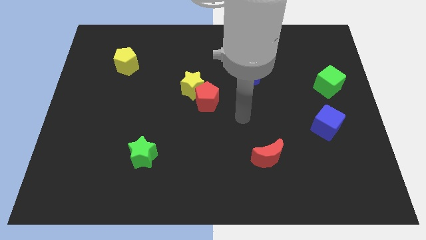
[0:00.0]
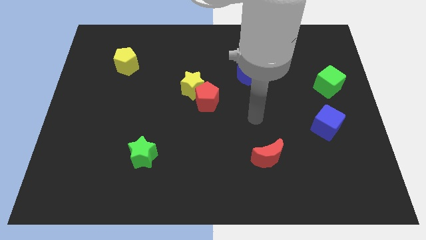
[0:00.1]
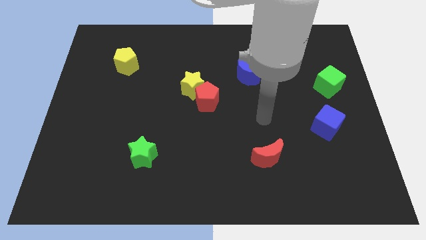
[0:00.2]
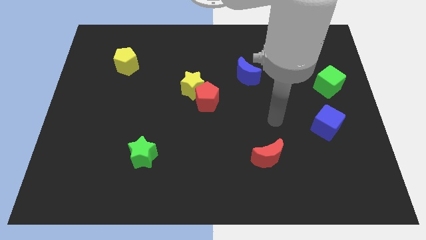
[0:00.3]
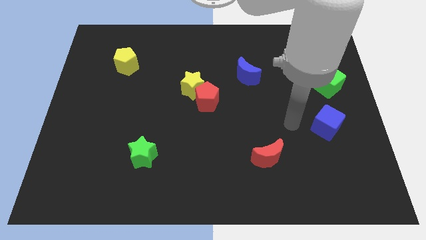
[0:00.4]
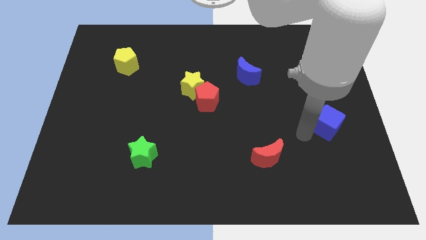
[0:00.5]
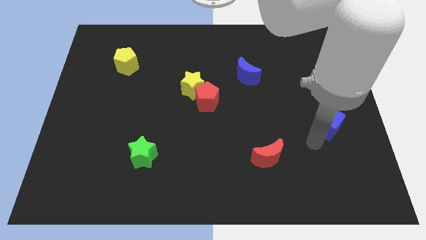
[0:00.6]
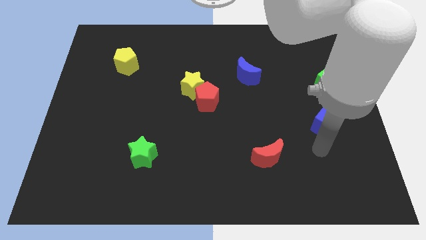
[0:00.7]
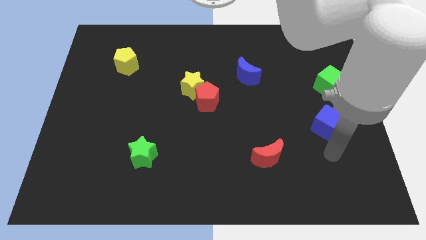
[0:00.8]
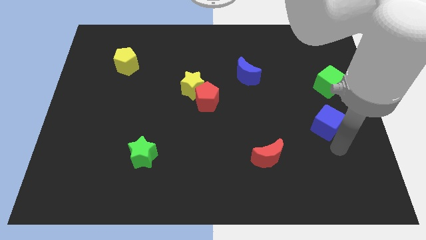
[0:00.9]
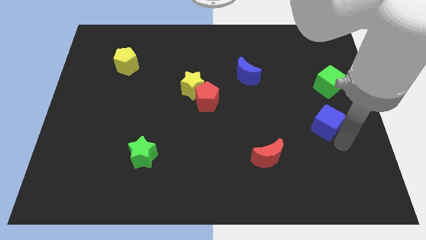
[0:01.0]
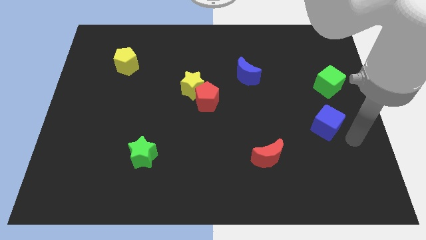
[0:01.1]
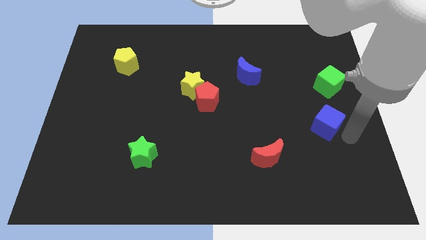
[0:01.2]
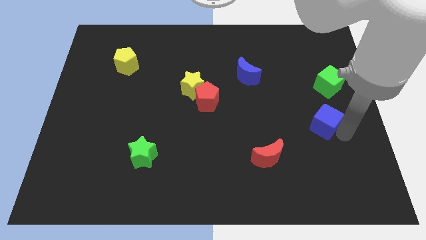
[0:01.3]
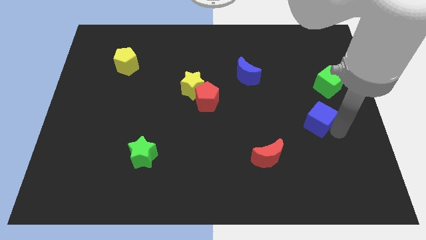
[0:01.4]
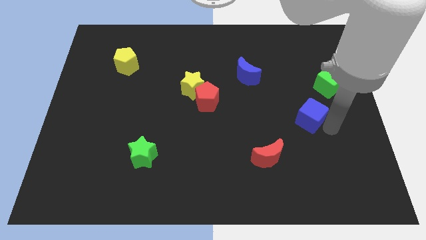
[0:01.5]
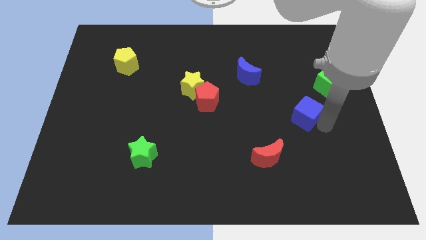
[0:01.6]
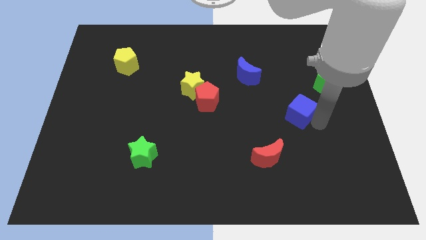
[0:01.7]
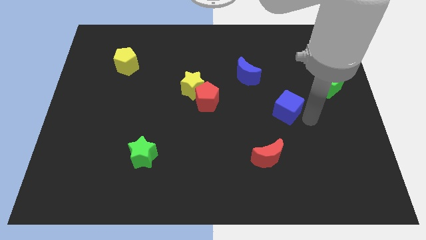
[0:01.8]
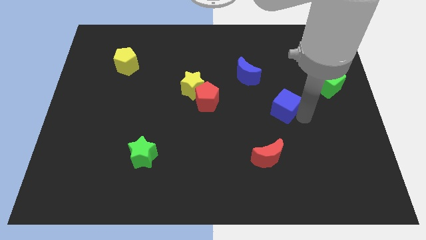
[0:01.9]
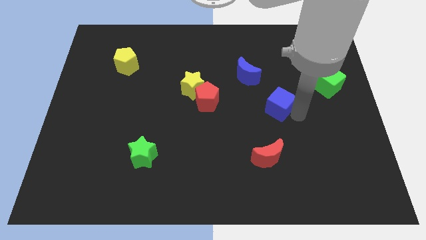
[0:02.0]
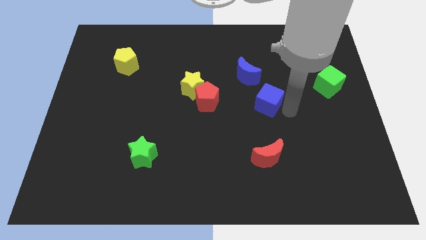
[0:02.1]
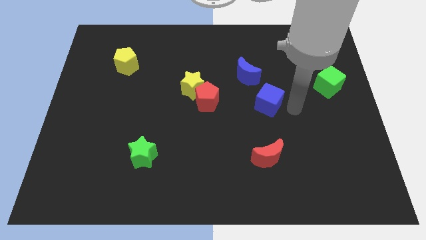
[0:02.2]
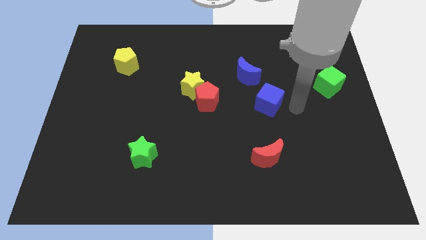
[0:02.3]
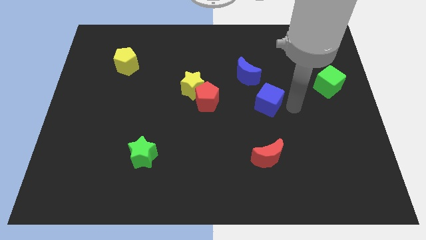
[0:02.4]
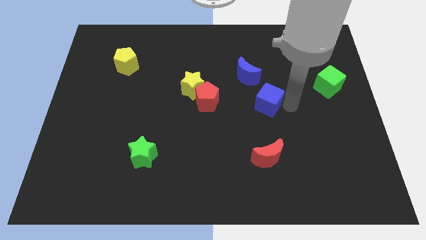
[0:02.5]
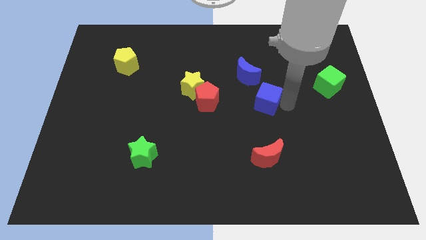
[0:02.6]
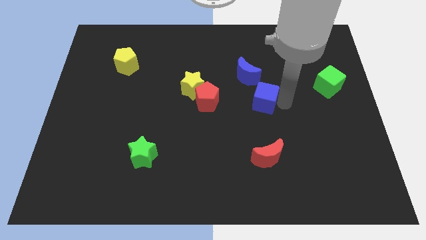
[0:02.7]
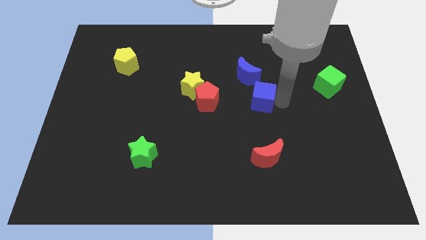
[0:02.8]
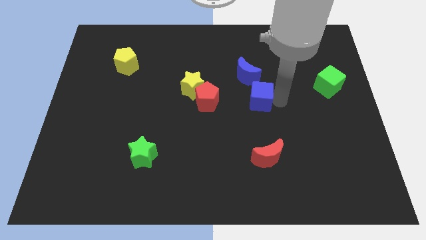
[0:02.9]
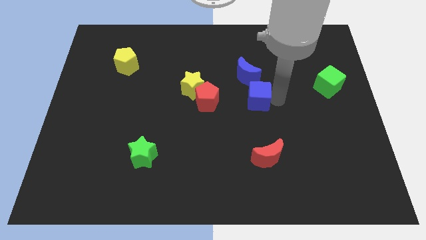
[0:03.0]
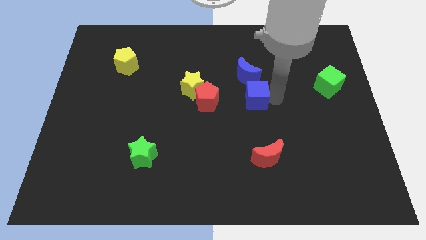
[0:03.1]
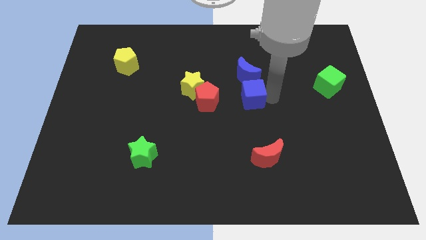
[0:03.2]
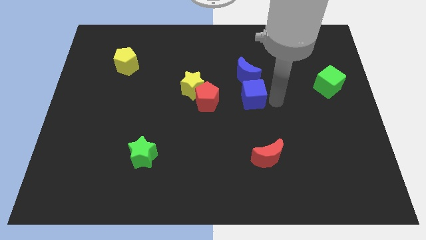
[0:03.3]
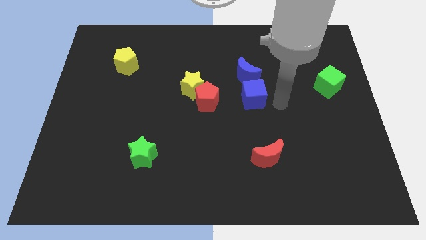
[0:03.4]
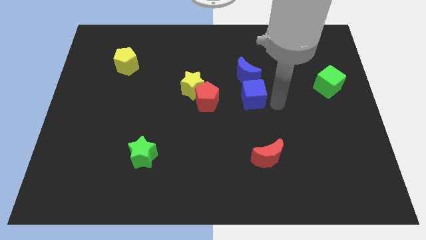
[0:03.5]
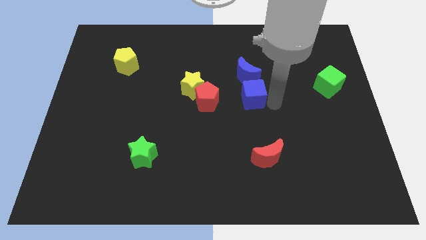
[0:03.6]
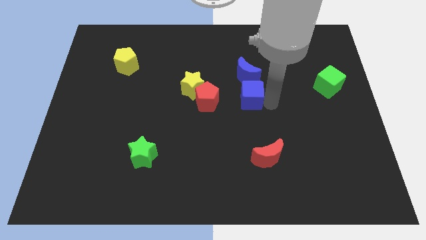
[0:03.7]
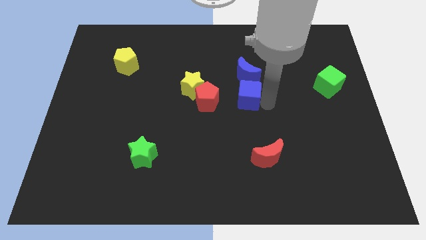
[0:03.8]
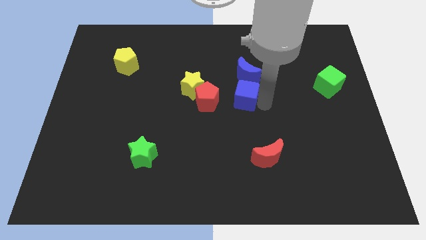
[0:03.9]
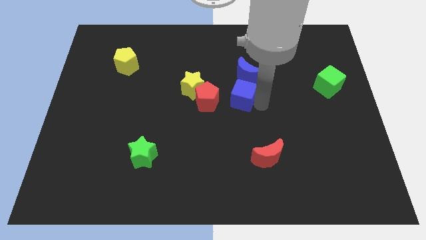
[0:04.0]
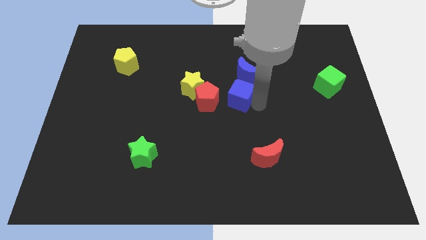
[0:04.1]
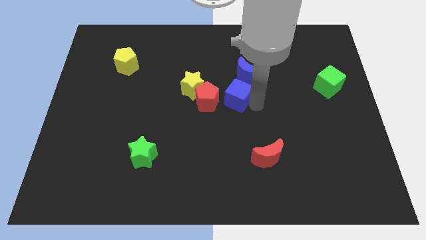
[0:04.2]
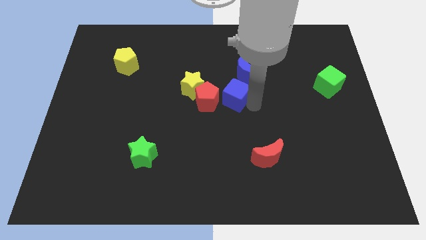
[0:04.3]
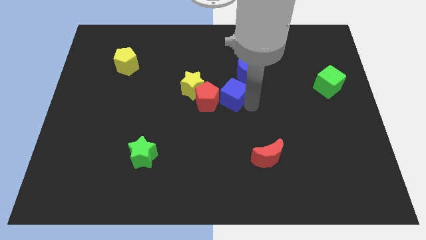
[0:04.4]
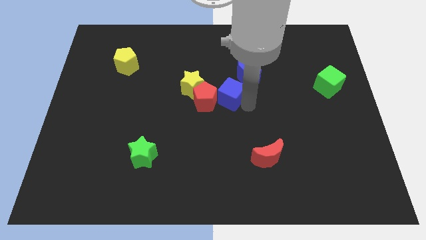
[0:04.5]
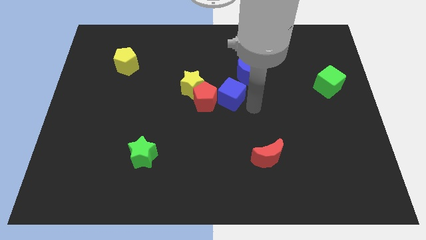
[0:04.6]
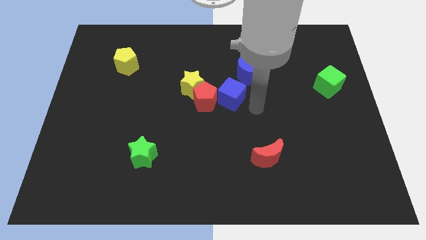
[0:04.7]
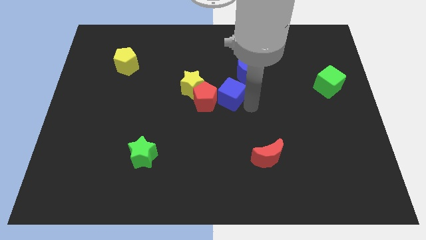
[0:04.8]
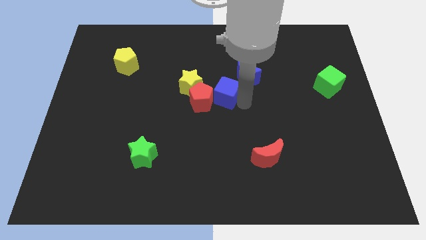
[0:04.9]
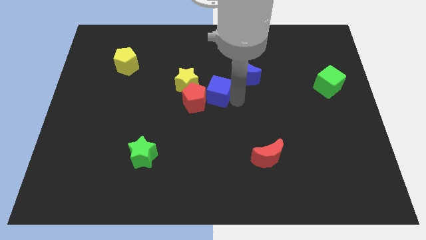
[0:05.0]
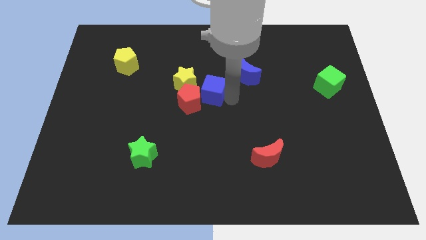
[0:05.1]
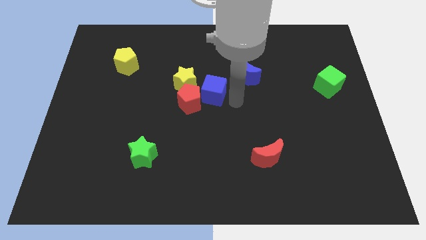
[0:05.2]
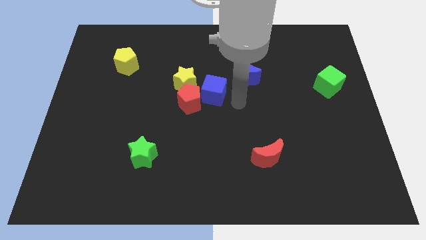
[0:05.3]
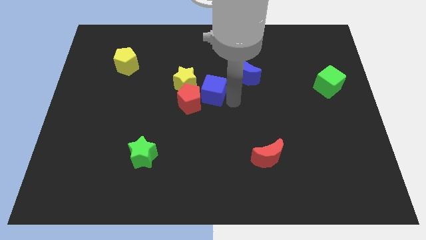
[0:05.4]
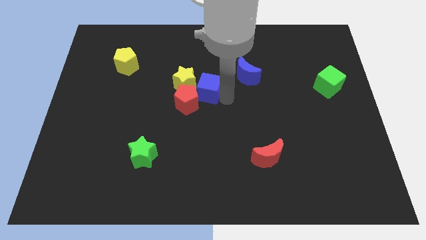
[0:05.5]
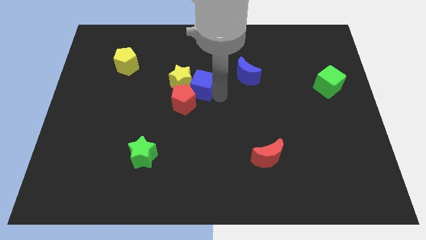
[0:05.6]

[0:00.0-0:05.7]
move the blue cube towards the yellow star

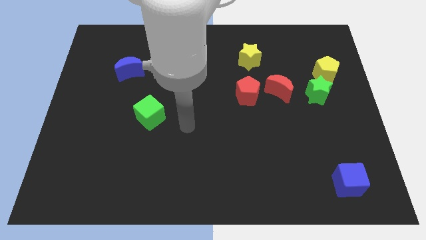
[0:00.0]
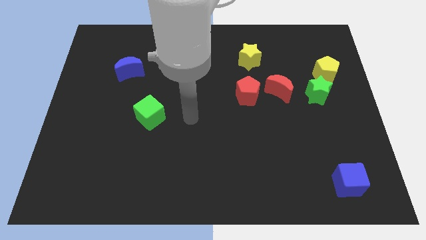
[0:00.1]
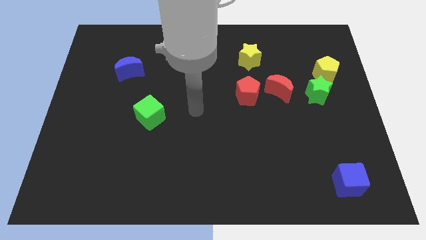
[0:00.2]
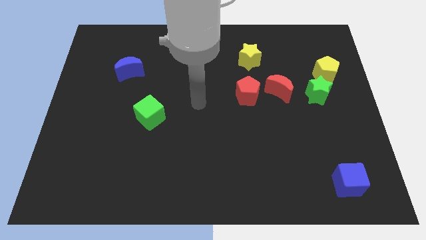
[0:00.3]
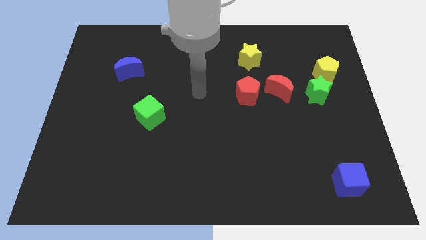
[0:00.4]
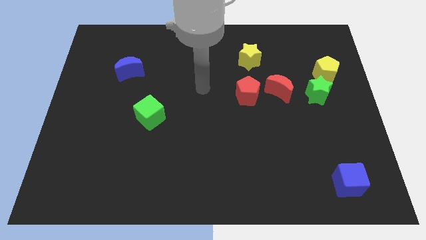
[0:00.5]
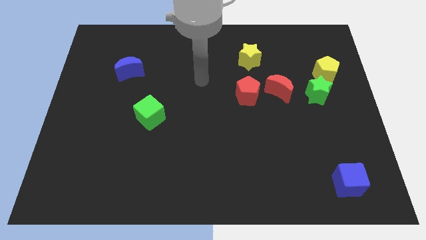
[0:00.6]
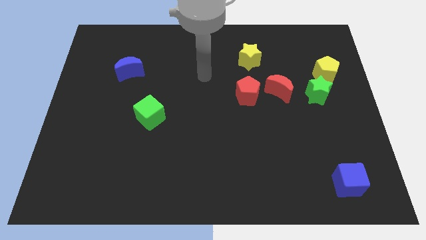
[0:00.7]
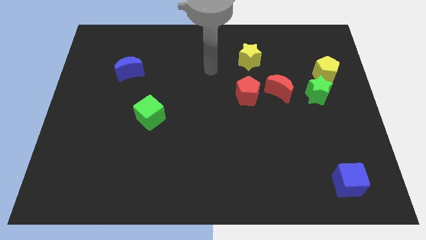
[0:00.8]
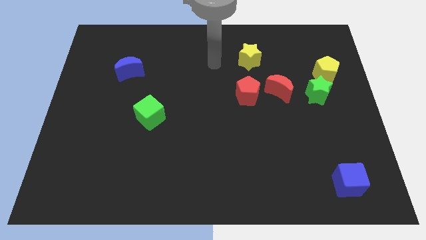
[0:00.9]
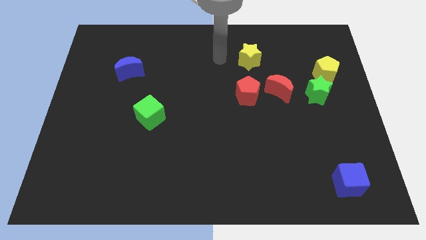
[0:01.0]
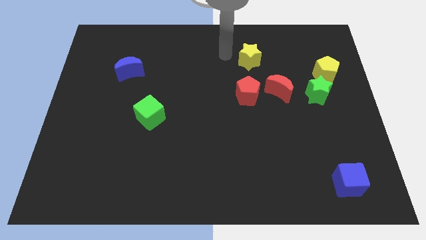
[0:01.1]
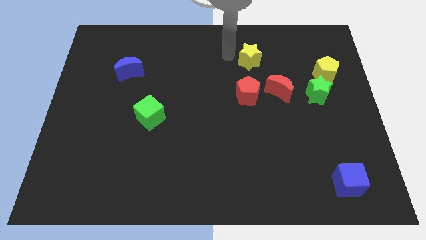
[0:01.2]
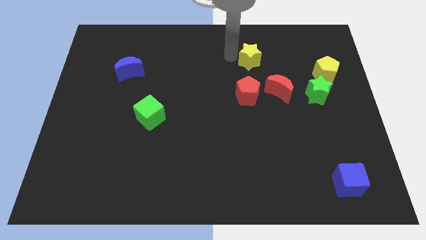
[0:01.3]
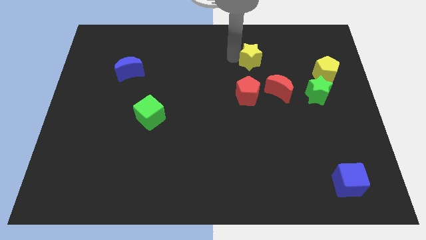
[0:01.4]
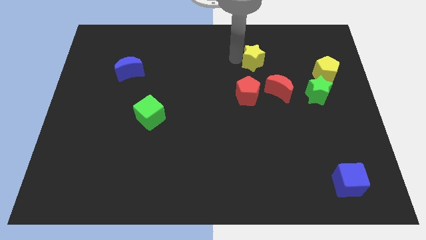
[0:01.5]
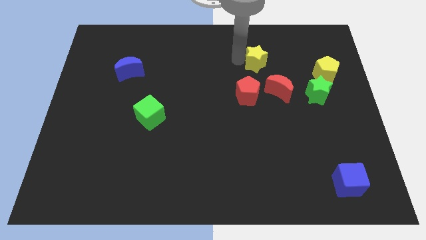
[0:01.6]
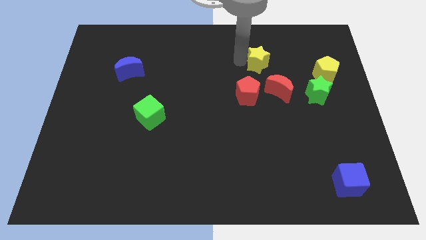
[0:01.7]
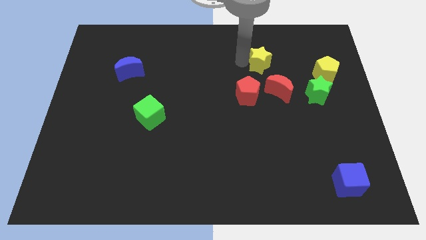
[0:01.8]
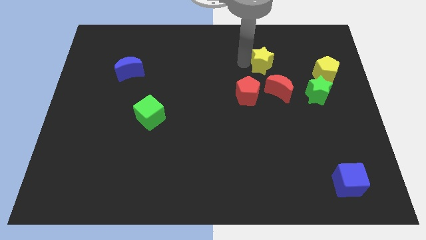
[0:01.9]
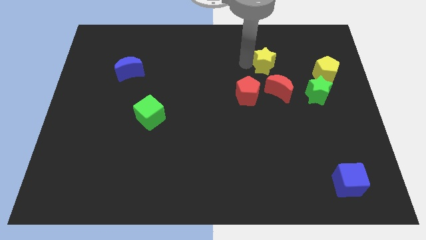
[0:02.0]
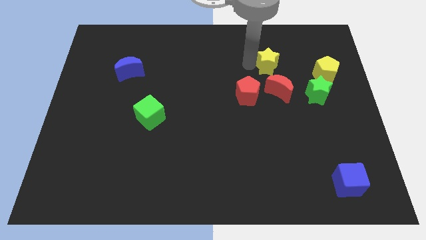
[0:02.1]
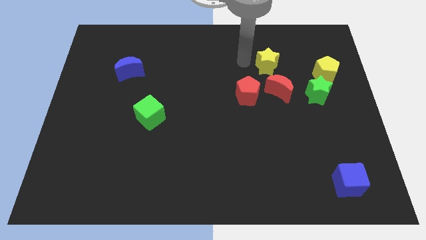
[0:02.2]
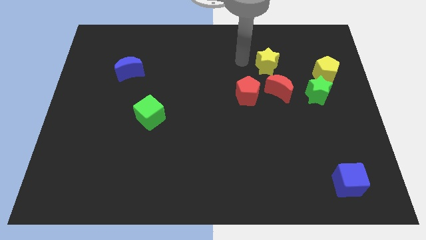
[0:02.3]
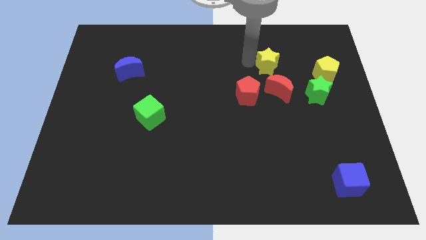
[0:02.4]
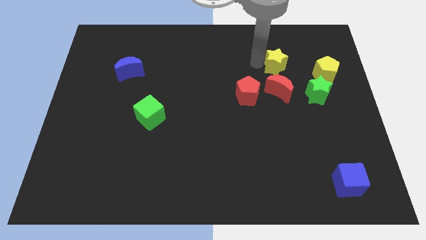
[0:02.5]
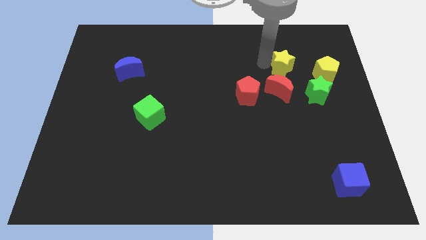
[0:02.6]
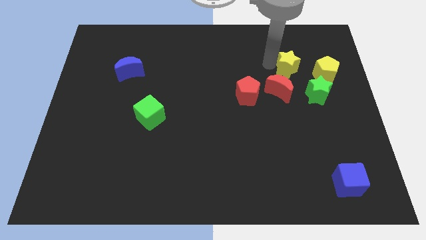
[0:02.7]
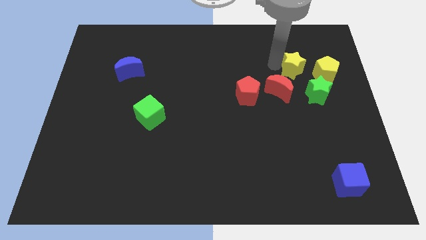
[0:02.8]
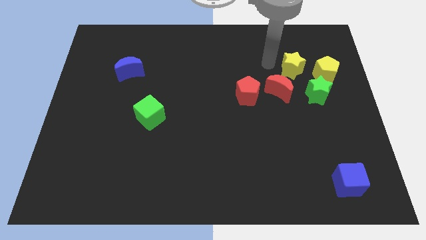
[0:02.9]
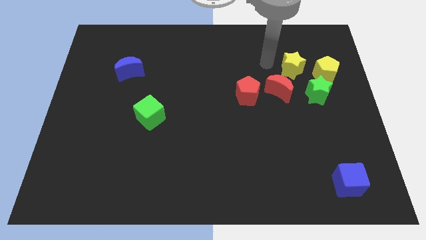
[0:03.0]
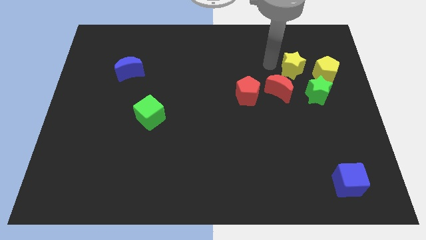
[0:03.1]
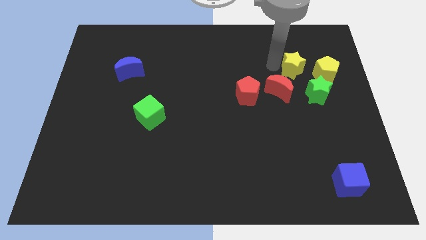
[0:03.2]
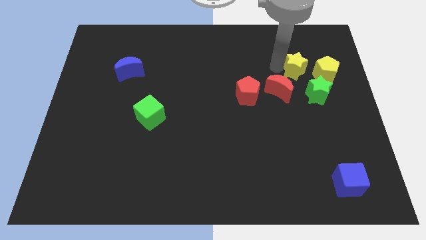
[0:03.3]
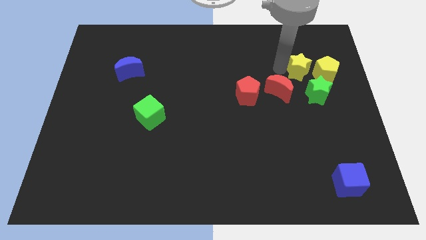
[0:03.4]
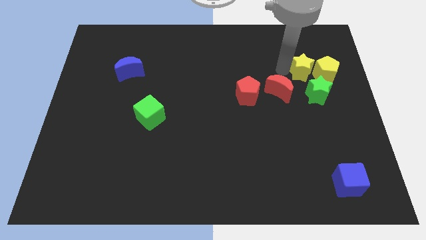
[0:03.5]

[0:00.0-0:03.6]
put the yellow star next to the yellow pentagon
